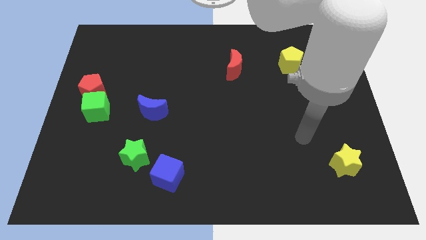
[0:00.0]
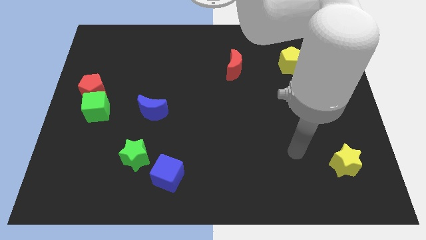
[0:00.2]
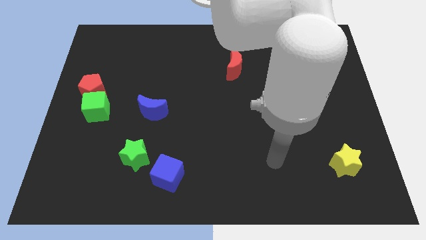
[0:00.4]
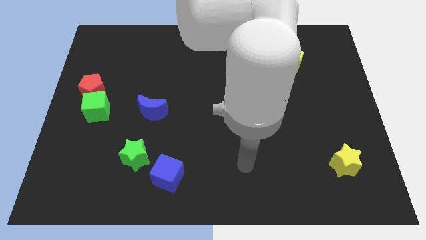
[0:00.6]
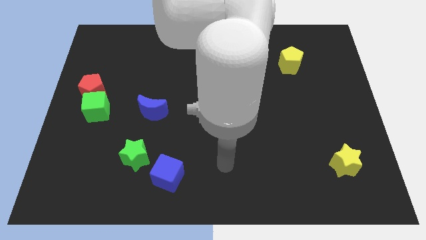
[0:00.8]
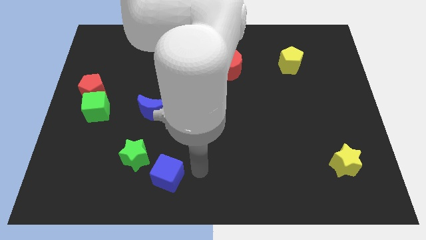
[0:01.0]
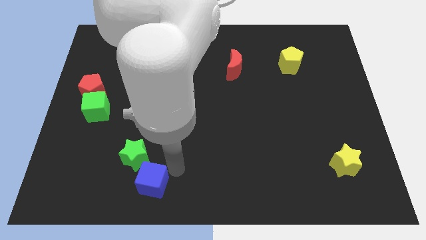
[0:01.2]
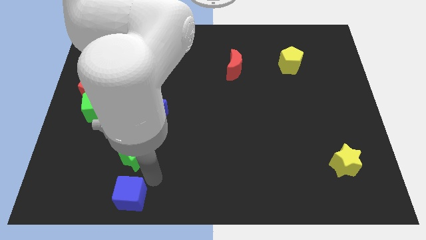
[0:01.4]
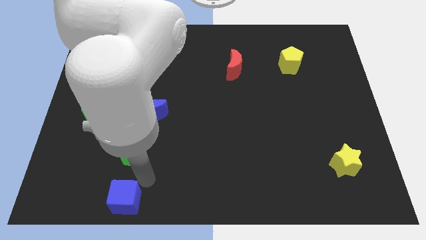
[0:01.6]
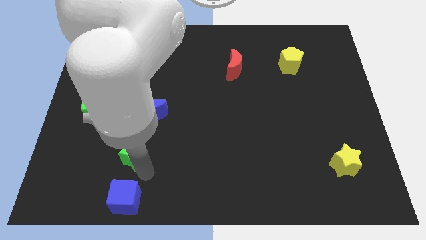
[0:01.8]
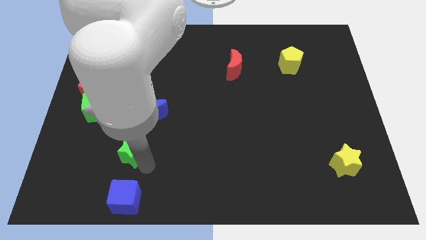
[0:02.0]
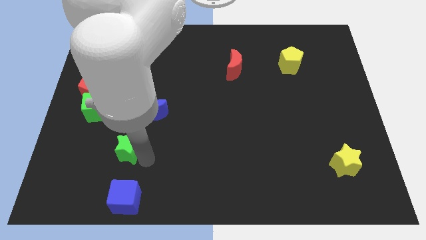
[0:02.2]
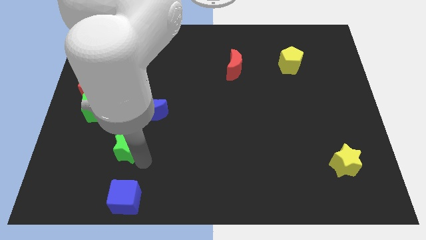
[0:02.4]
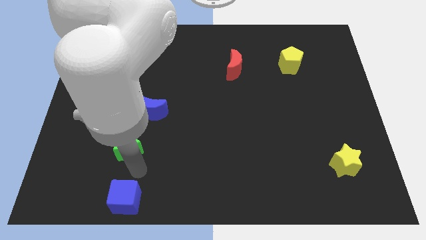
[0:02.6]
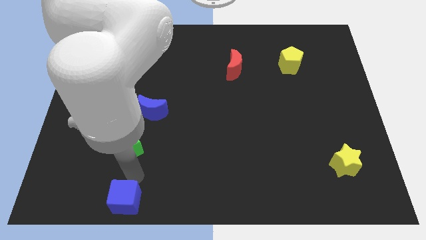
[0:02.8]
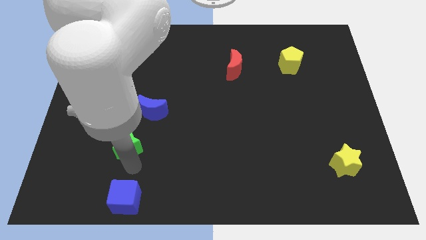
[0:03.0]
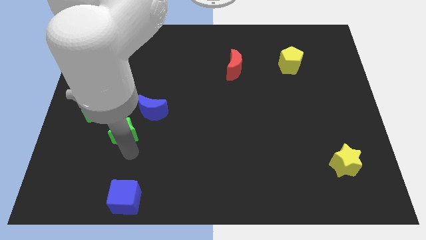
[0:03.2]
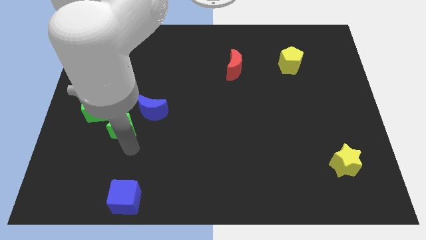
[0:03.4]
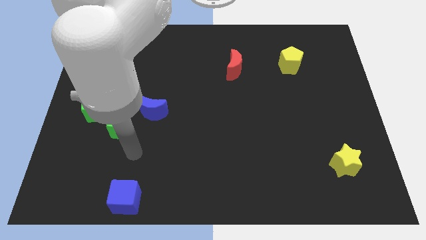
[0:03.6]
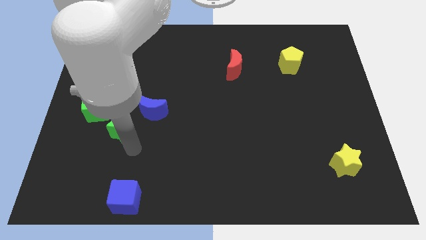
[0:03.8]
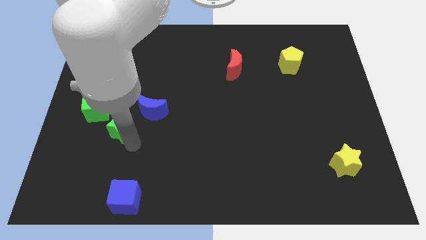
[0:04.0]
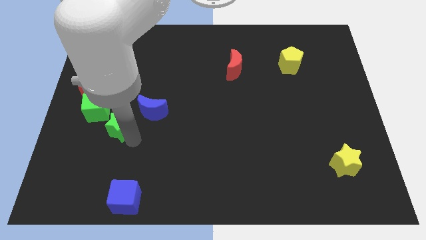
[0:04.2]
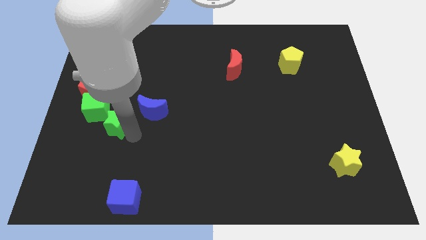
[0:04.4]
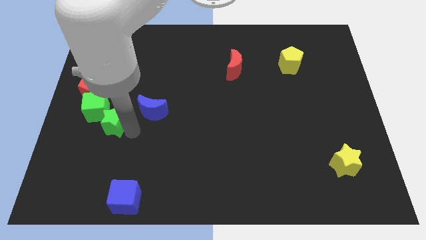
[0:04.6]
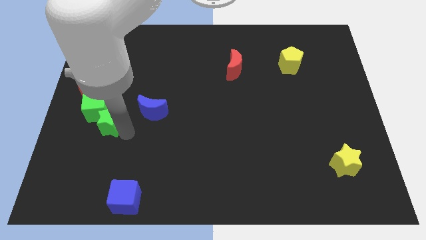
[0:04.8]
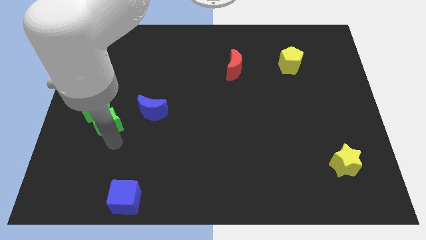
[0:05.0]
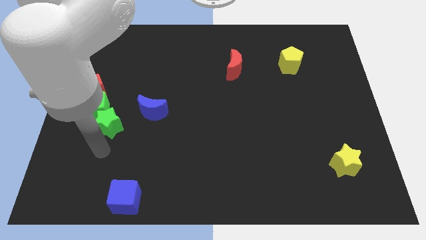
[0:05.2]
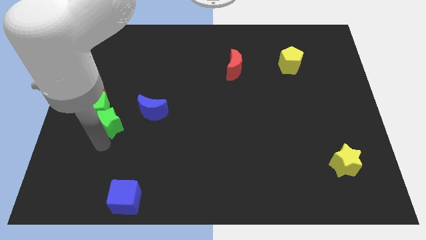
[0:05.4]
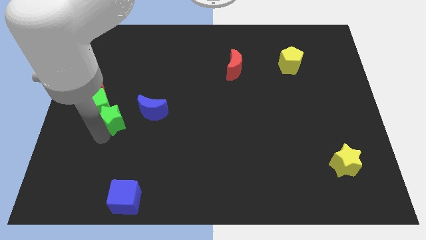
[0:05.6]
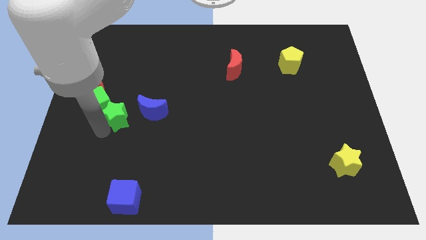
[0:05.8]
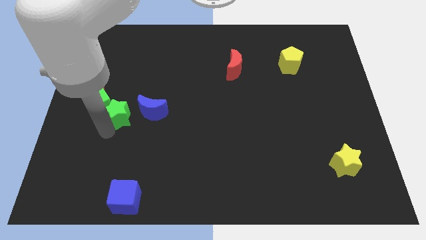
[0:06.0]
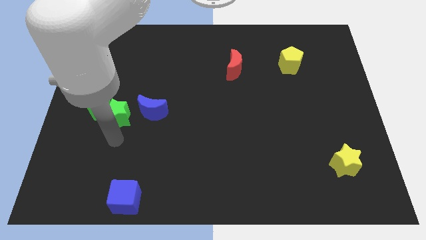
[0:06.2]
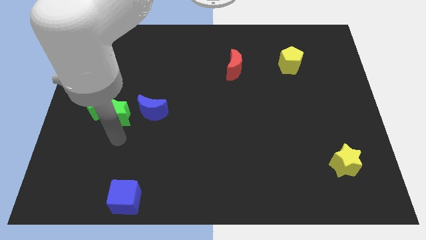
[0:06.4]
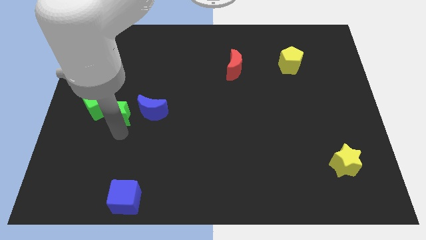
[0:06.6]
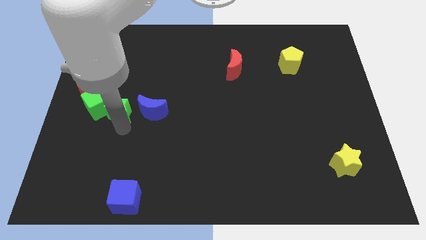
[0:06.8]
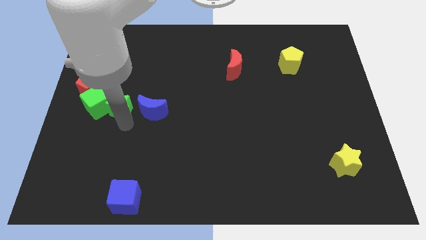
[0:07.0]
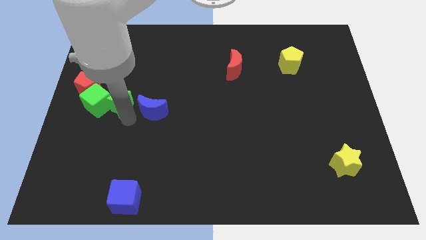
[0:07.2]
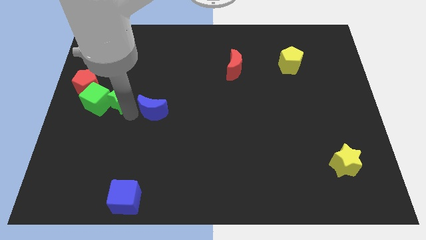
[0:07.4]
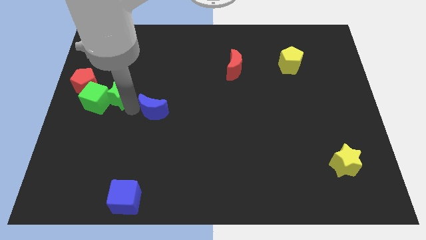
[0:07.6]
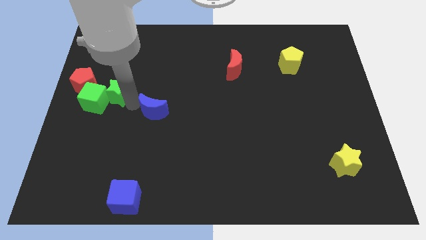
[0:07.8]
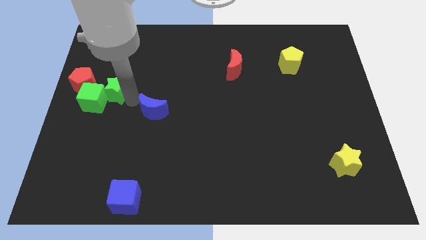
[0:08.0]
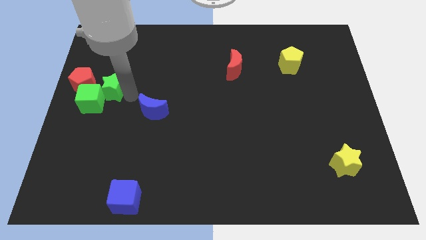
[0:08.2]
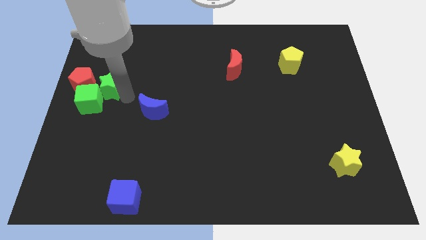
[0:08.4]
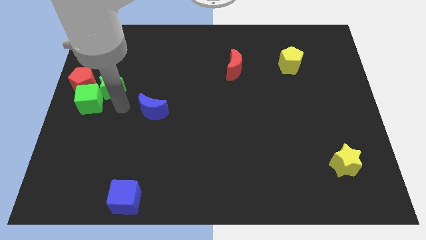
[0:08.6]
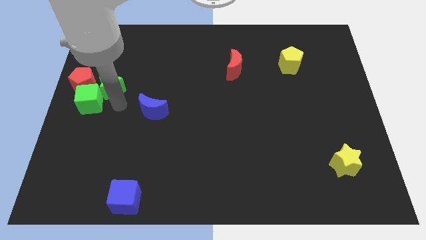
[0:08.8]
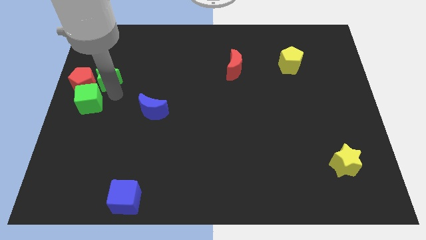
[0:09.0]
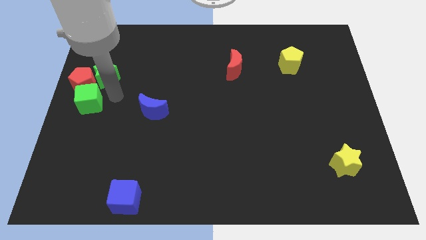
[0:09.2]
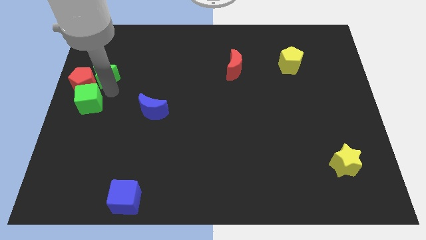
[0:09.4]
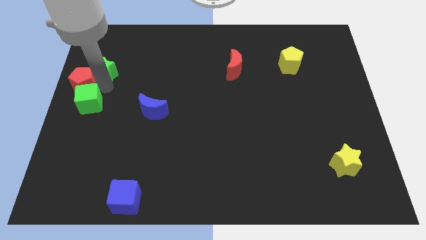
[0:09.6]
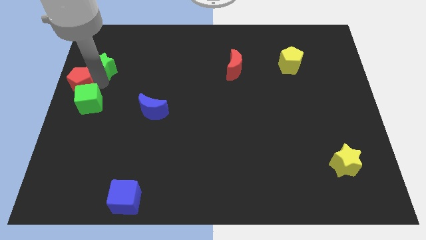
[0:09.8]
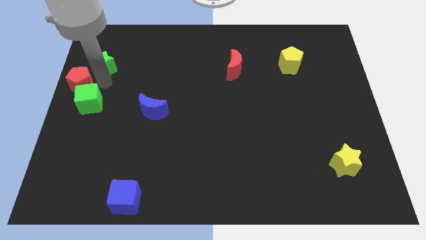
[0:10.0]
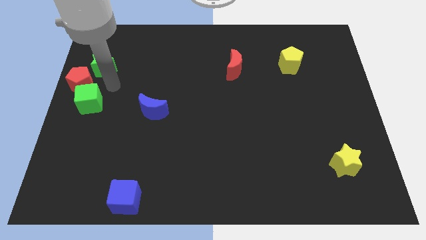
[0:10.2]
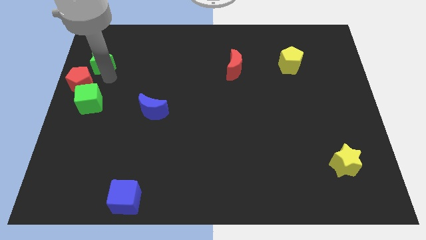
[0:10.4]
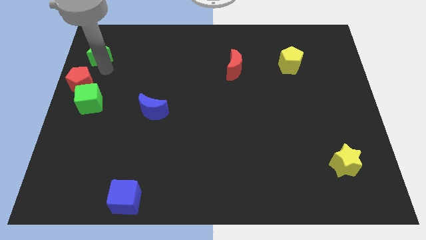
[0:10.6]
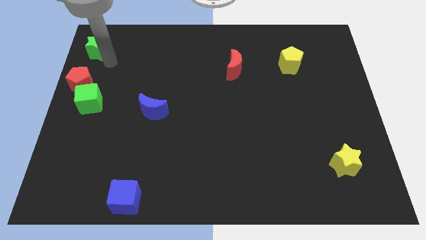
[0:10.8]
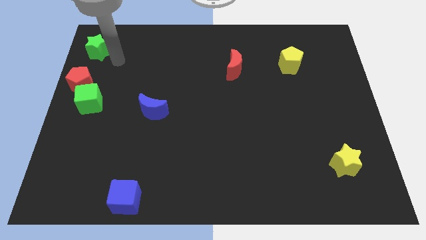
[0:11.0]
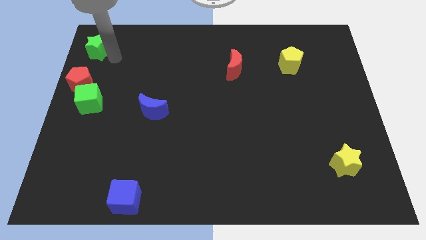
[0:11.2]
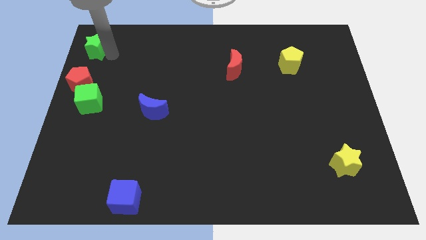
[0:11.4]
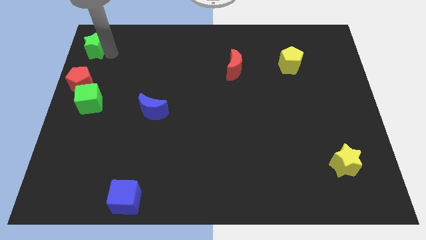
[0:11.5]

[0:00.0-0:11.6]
put the green star to the top left corner

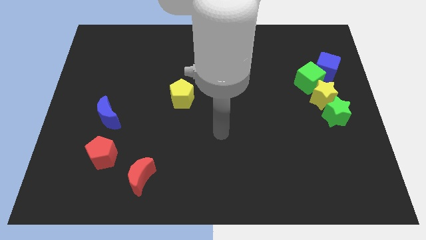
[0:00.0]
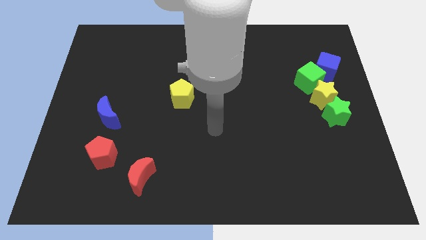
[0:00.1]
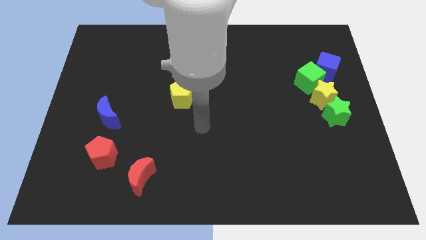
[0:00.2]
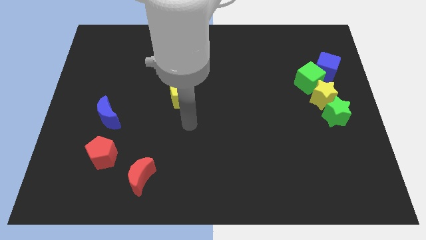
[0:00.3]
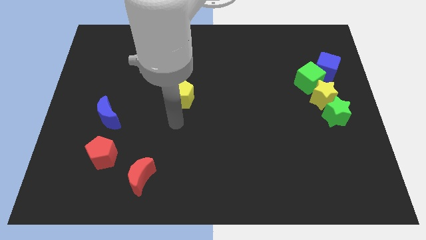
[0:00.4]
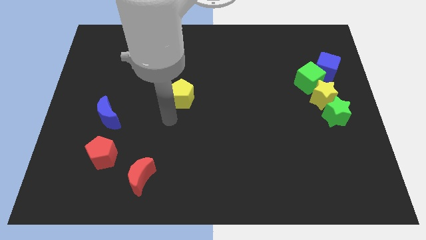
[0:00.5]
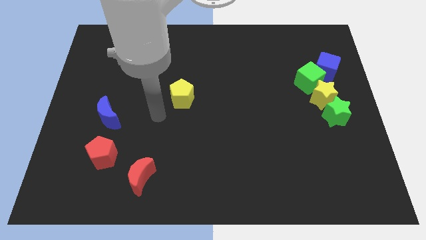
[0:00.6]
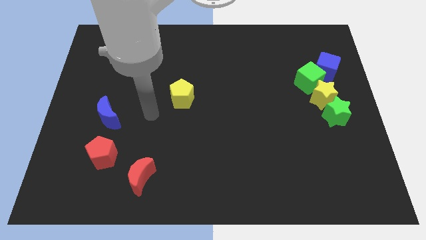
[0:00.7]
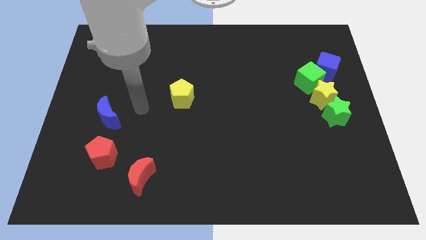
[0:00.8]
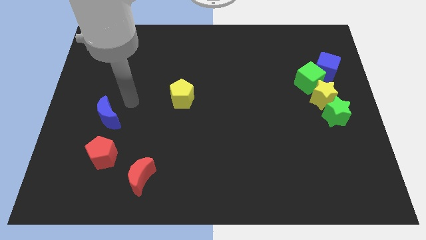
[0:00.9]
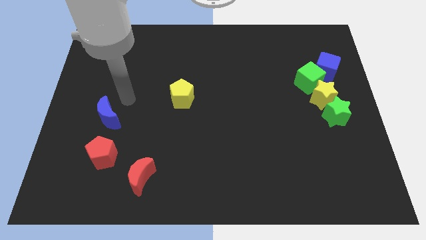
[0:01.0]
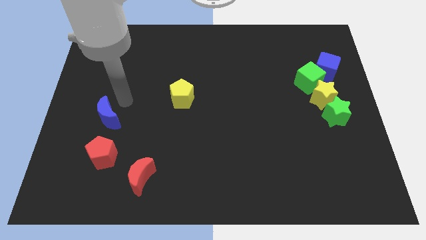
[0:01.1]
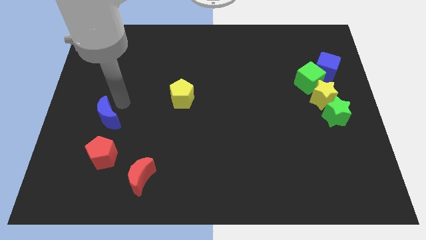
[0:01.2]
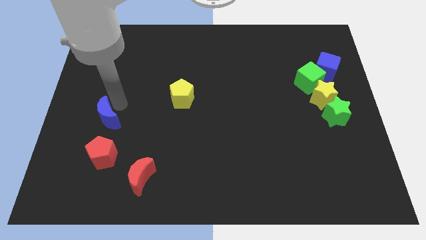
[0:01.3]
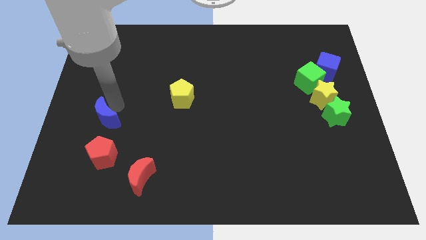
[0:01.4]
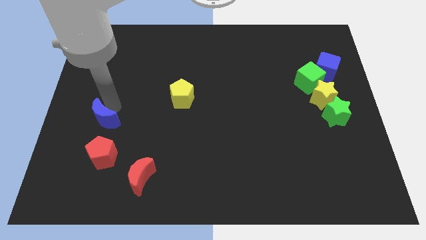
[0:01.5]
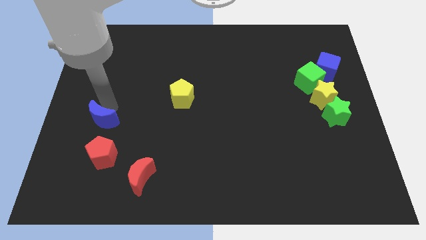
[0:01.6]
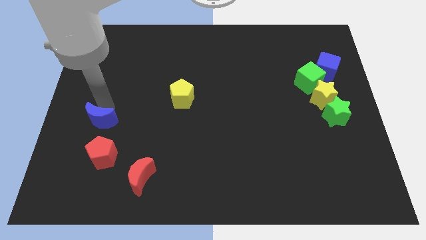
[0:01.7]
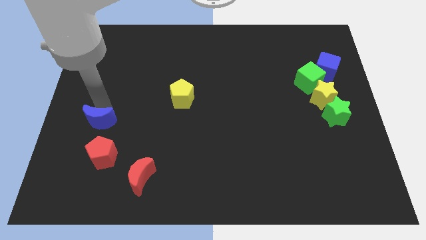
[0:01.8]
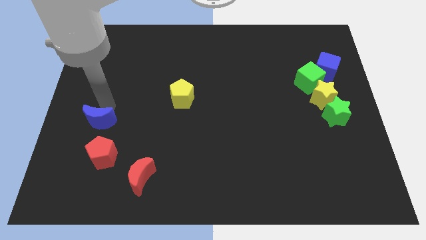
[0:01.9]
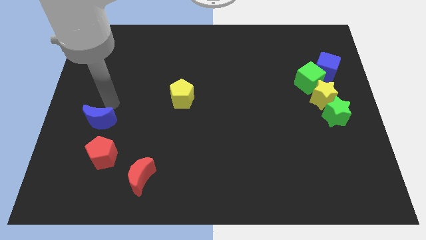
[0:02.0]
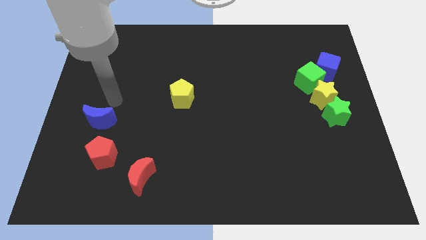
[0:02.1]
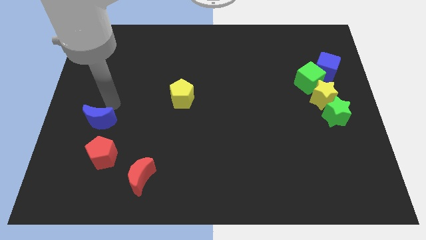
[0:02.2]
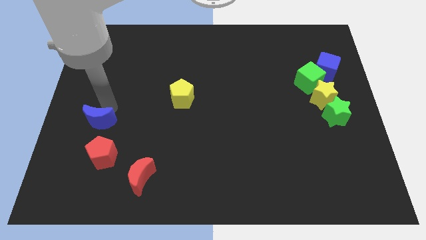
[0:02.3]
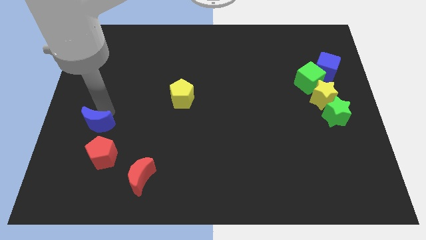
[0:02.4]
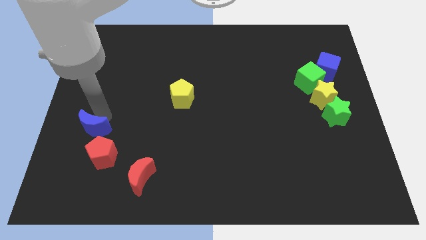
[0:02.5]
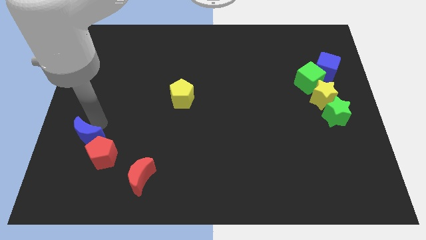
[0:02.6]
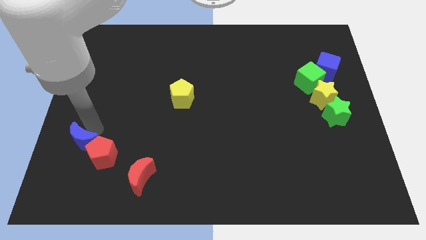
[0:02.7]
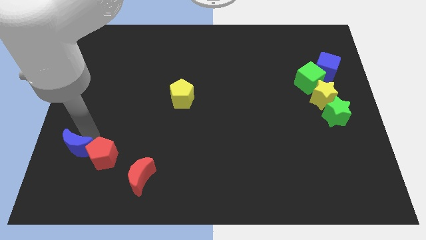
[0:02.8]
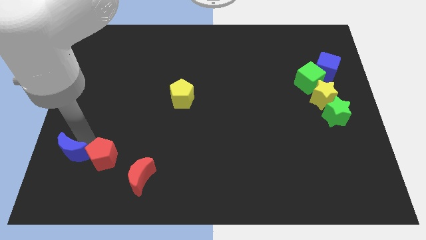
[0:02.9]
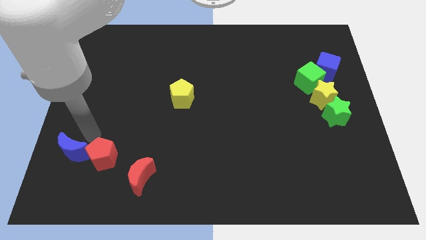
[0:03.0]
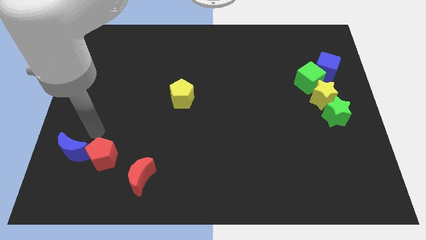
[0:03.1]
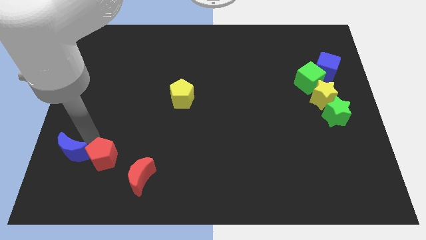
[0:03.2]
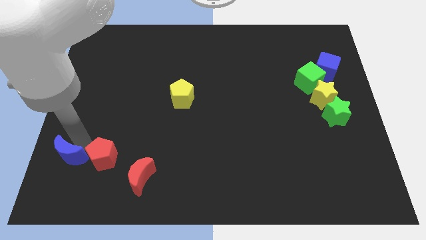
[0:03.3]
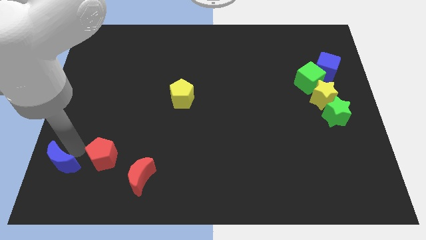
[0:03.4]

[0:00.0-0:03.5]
move the blue moon to the bottom left of the board
